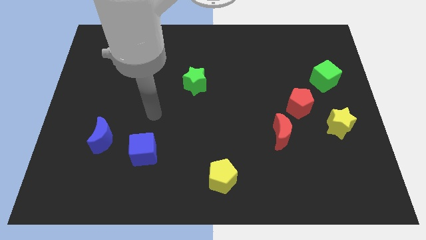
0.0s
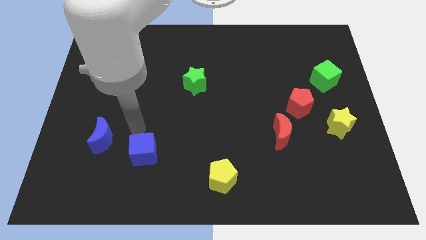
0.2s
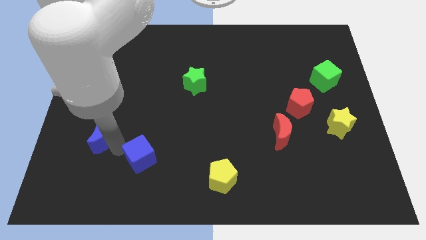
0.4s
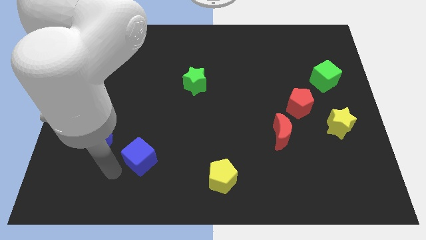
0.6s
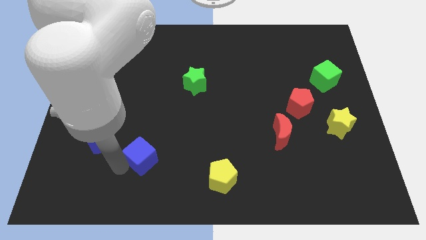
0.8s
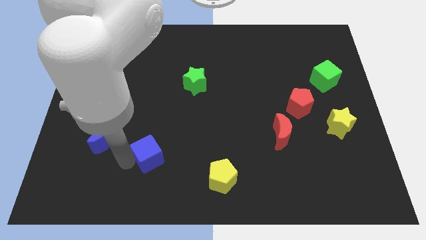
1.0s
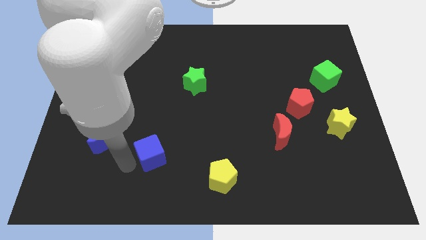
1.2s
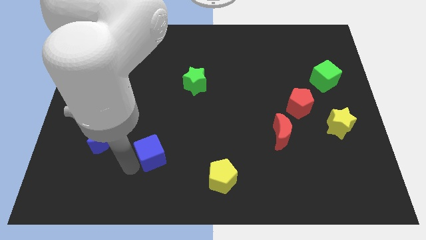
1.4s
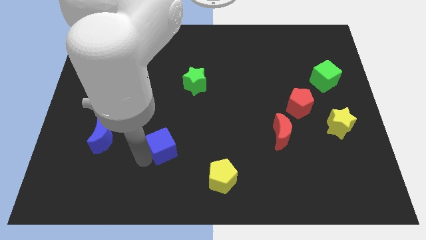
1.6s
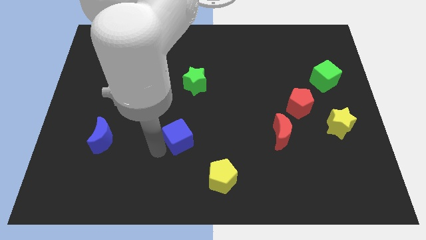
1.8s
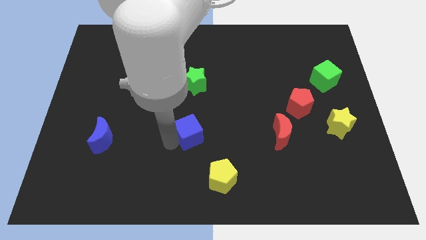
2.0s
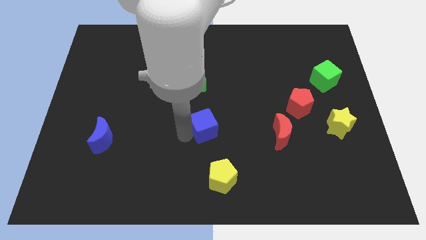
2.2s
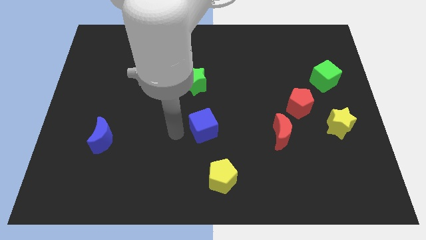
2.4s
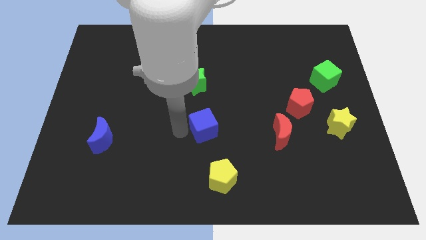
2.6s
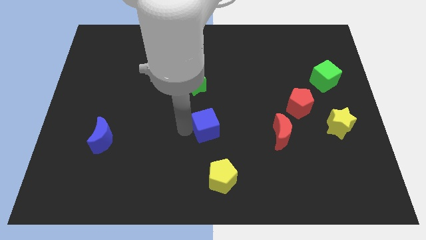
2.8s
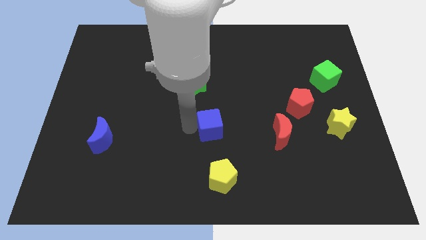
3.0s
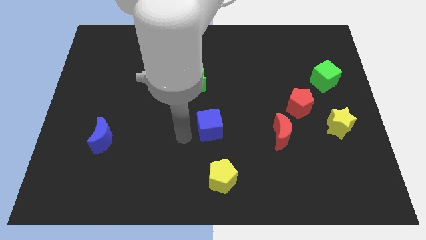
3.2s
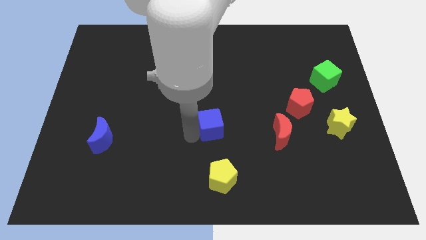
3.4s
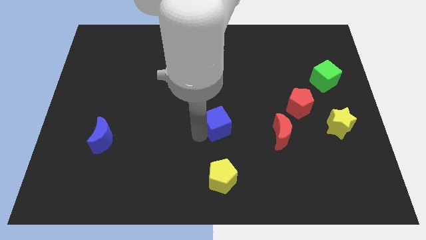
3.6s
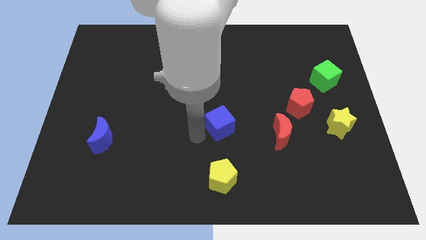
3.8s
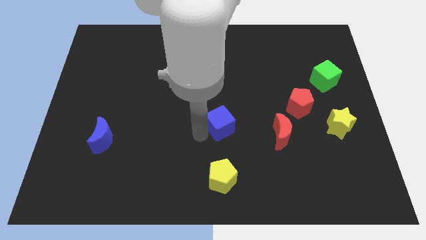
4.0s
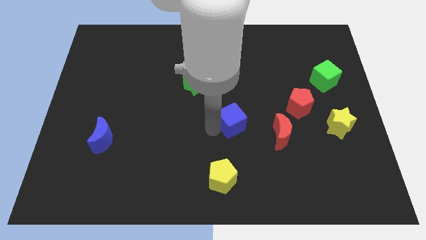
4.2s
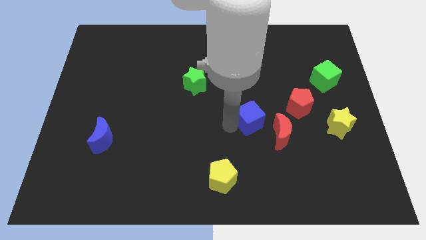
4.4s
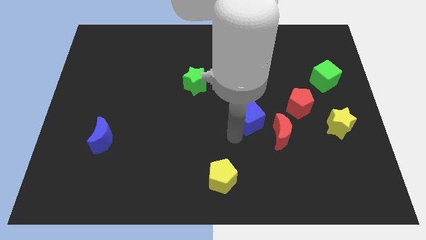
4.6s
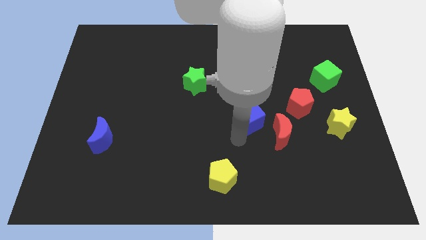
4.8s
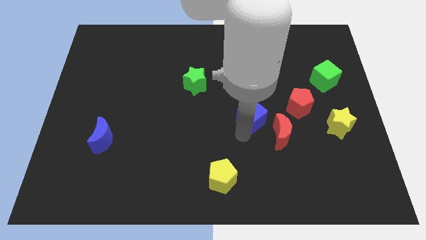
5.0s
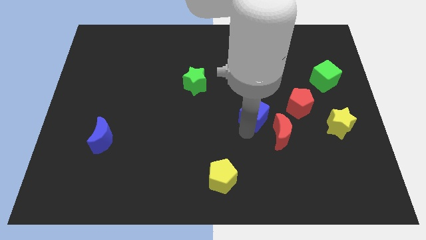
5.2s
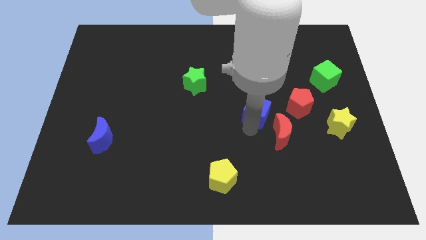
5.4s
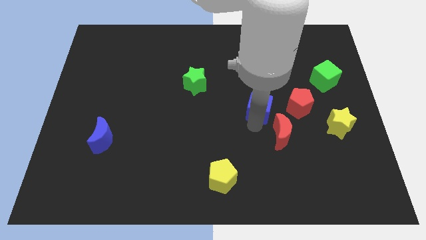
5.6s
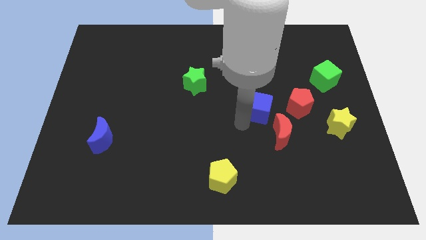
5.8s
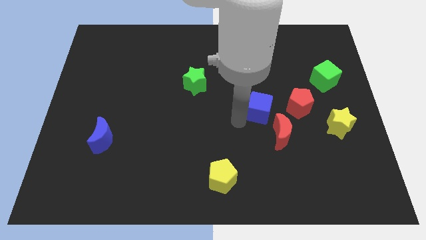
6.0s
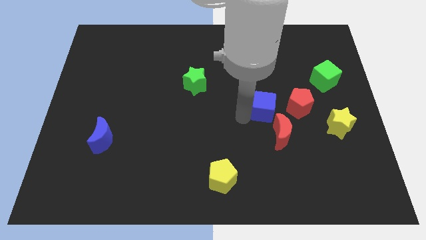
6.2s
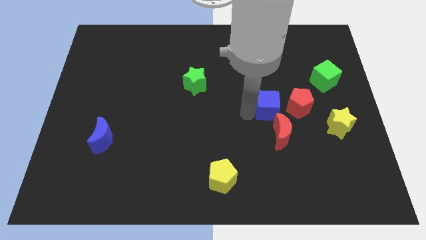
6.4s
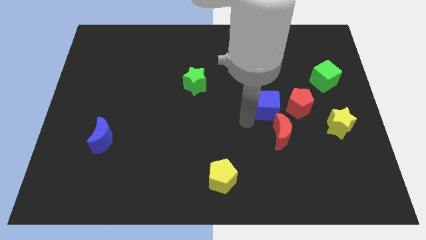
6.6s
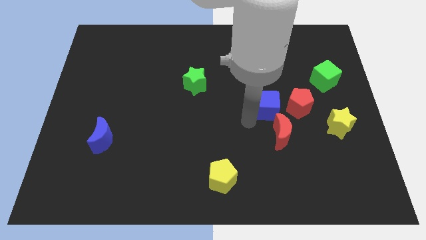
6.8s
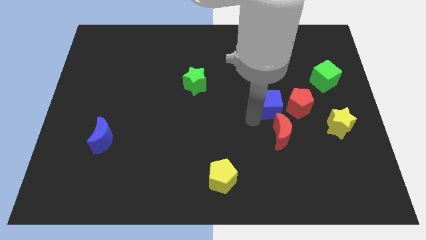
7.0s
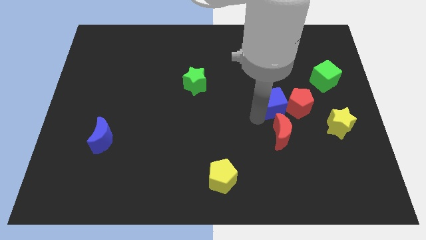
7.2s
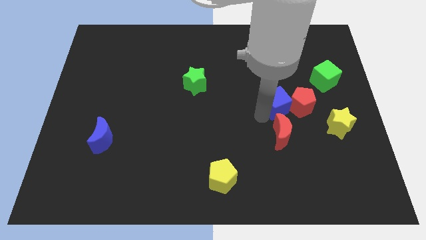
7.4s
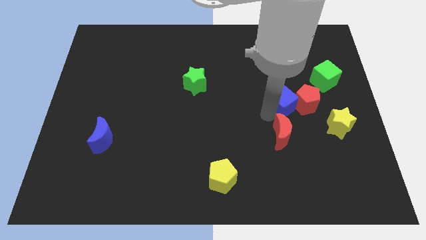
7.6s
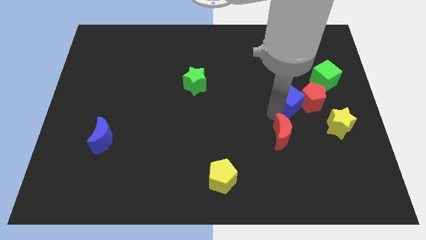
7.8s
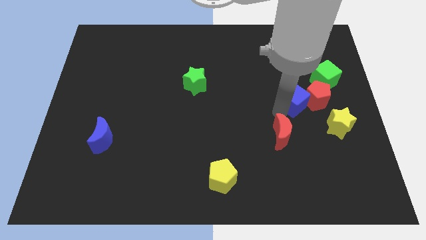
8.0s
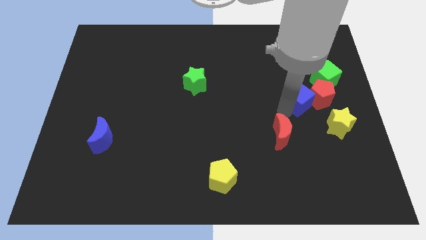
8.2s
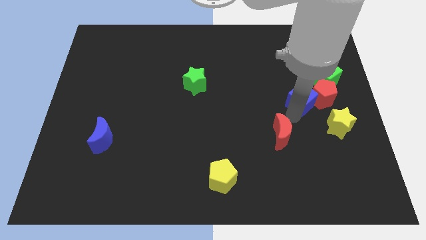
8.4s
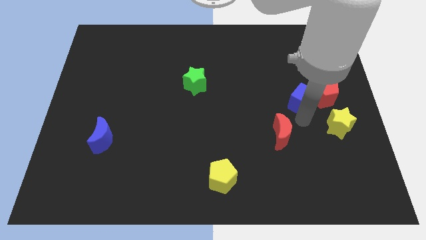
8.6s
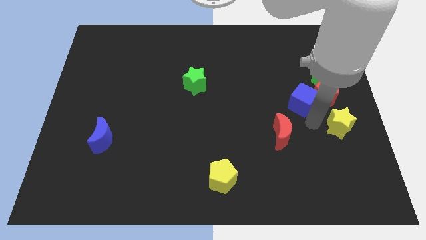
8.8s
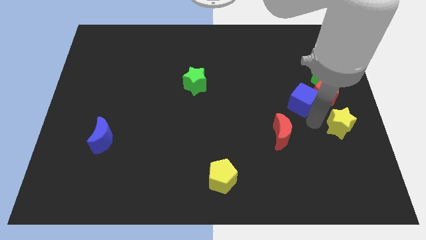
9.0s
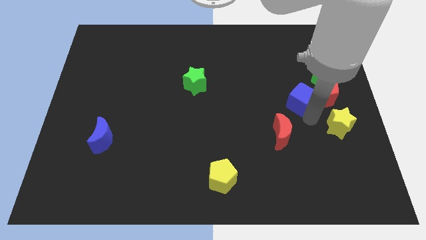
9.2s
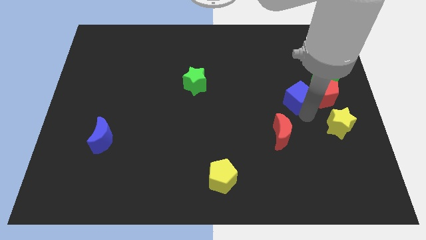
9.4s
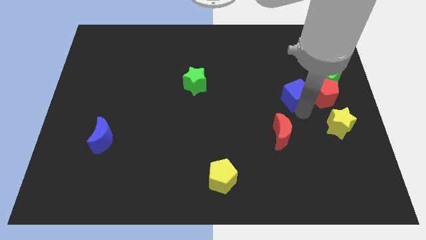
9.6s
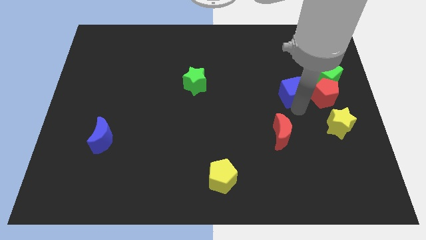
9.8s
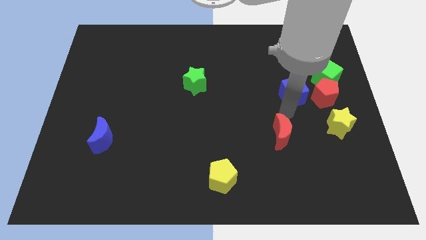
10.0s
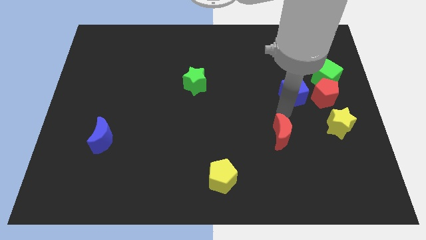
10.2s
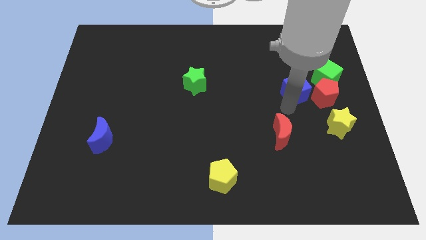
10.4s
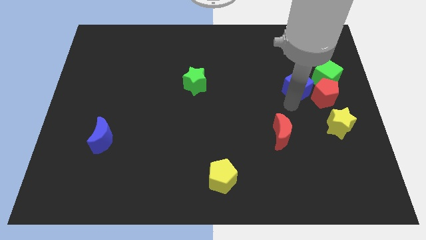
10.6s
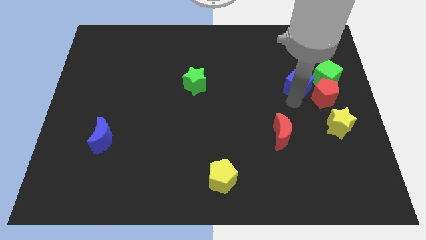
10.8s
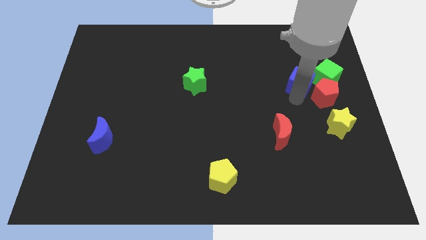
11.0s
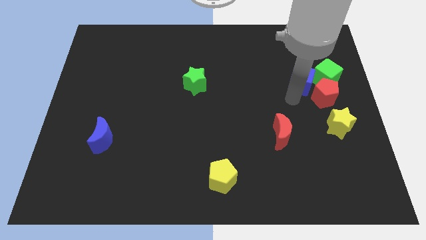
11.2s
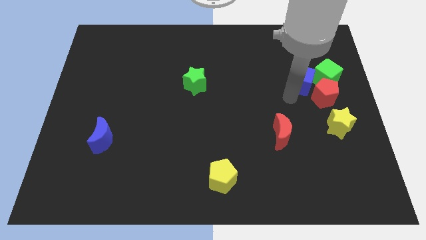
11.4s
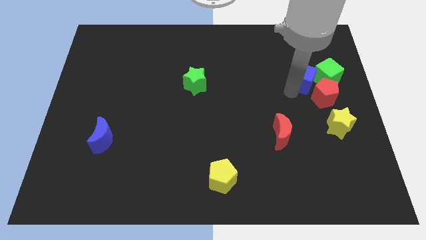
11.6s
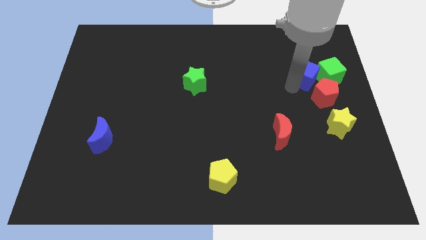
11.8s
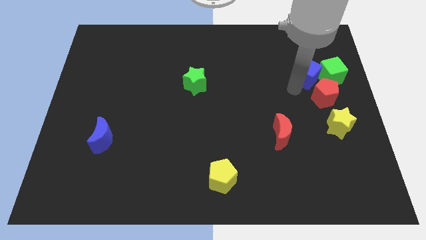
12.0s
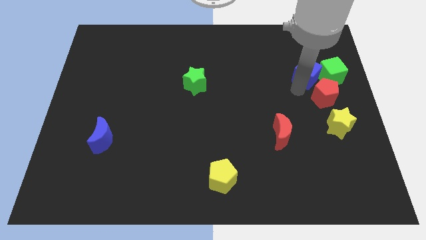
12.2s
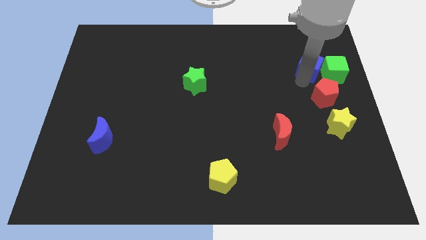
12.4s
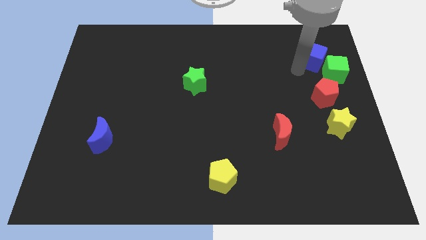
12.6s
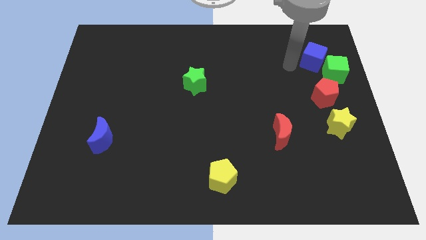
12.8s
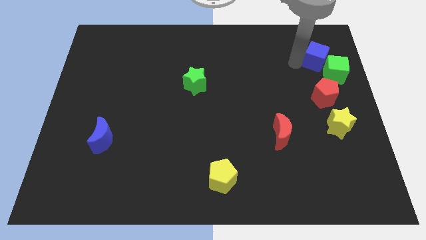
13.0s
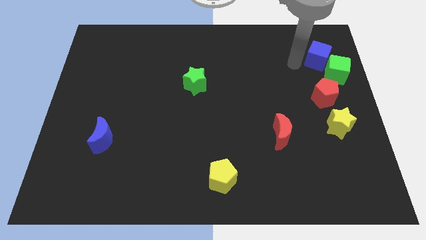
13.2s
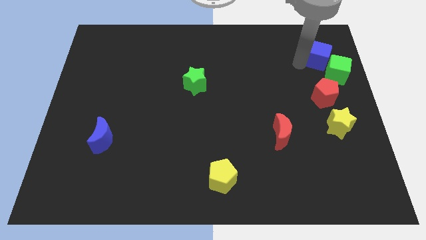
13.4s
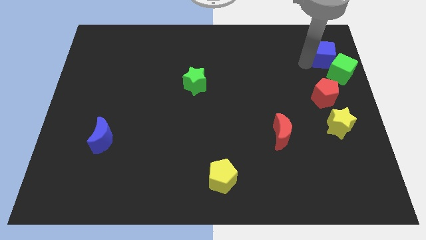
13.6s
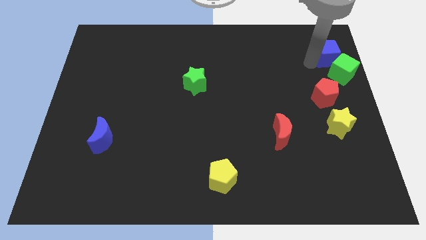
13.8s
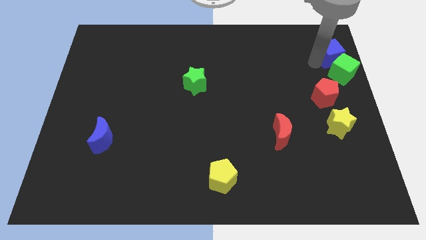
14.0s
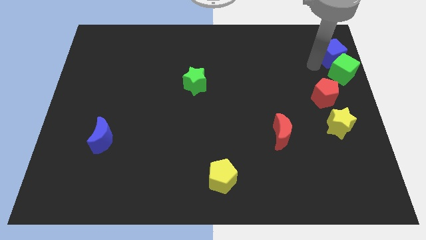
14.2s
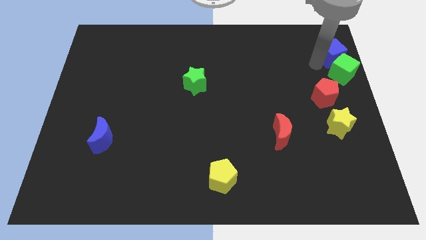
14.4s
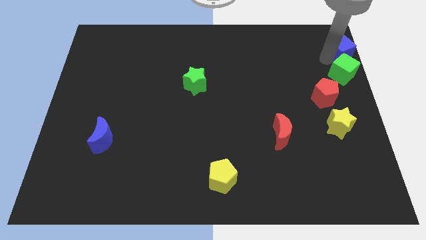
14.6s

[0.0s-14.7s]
put the blue cube to the top right

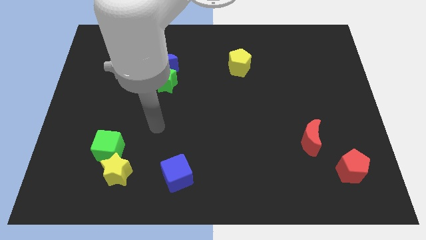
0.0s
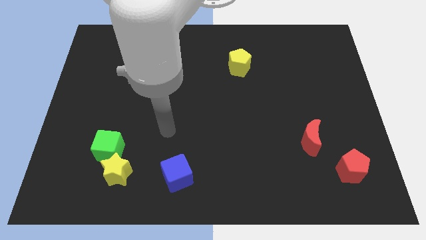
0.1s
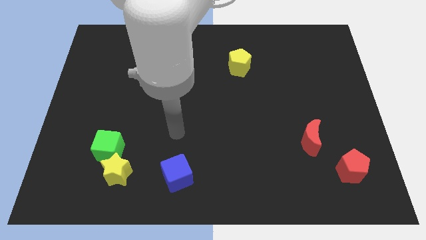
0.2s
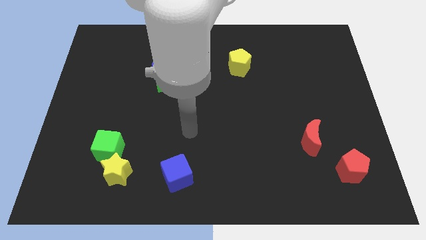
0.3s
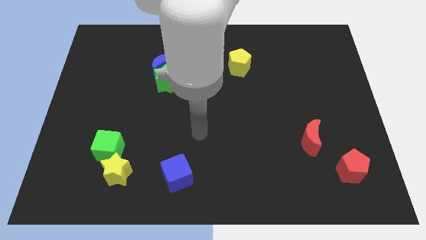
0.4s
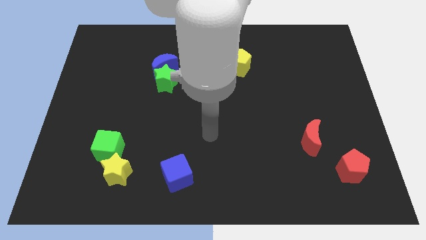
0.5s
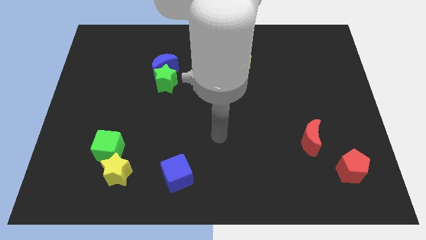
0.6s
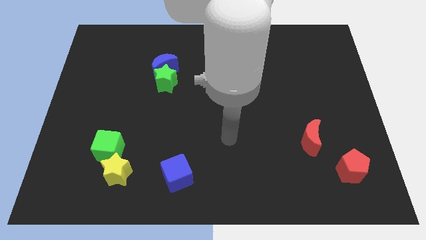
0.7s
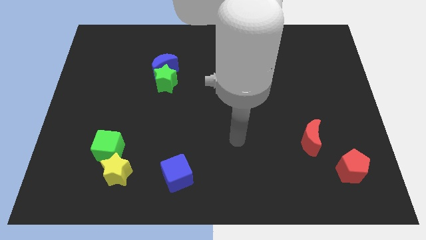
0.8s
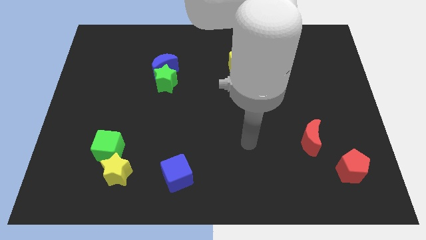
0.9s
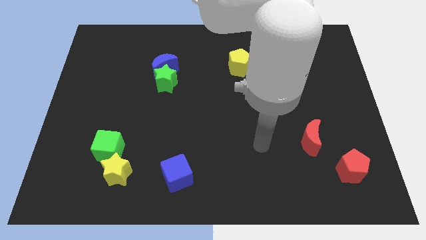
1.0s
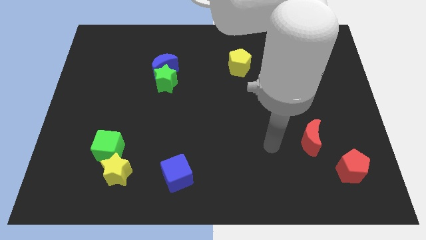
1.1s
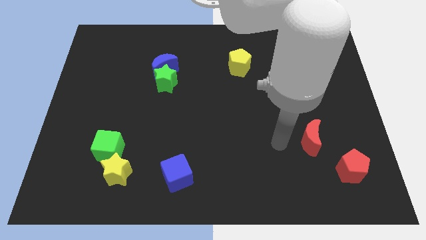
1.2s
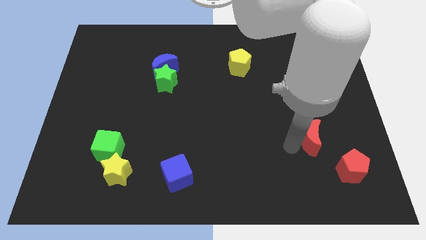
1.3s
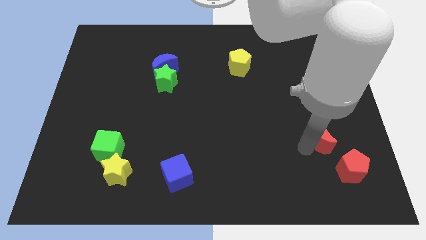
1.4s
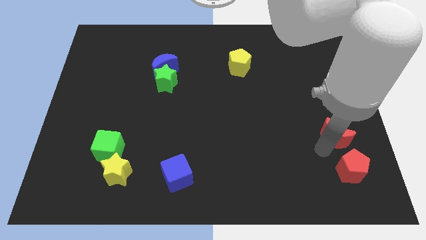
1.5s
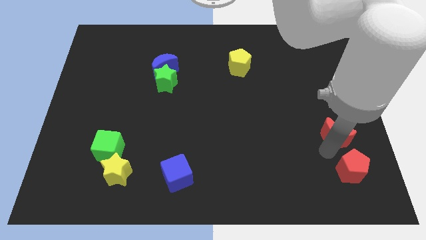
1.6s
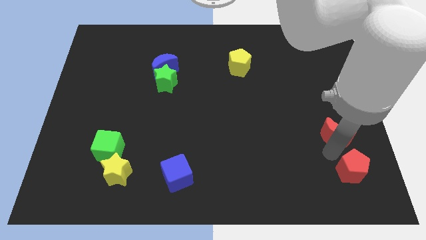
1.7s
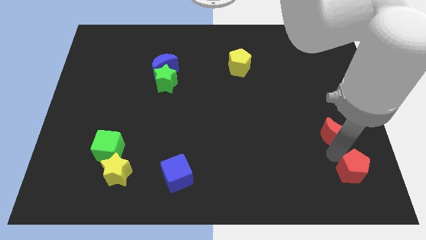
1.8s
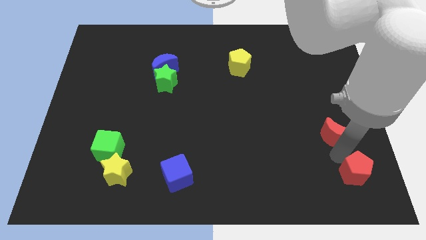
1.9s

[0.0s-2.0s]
put the red pentagon to the bottom right of the board
